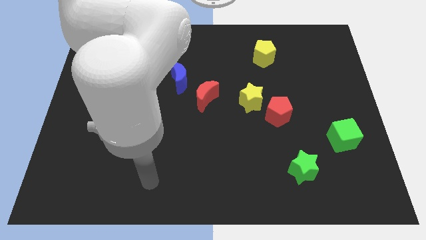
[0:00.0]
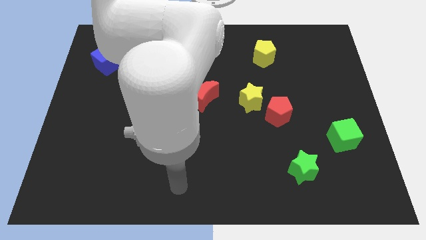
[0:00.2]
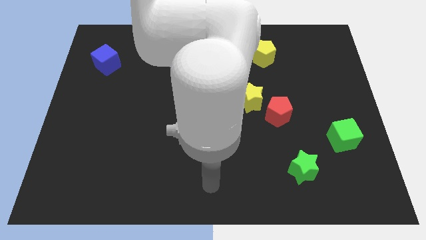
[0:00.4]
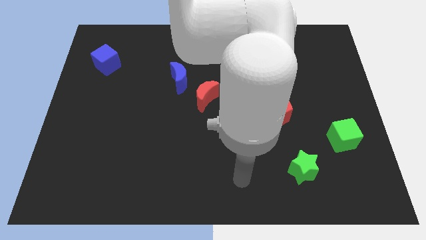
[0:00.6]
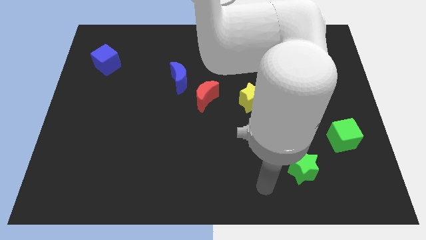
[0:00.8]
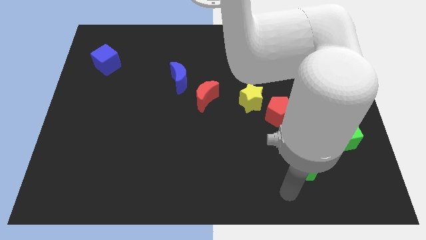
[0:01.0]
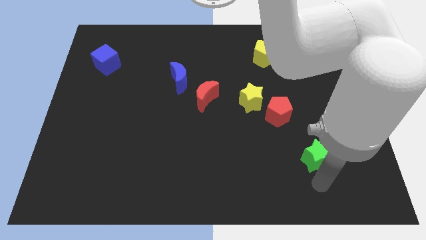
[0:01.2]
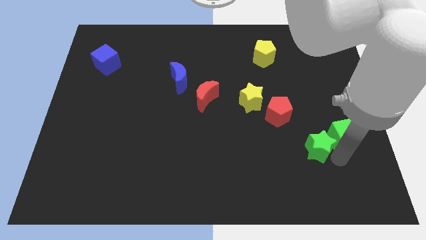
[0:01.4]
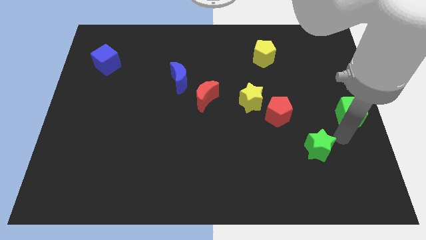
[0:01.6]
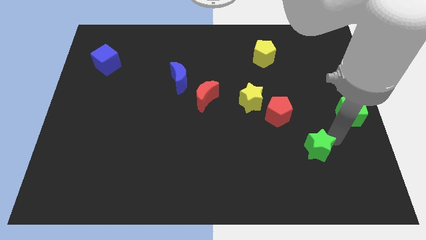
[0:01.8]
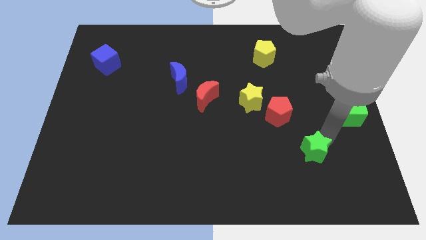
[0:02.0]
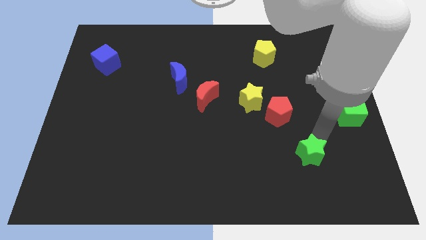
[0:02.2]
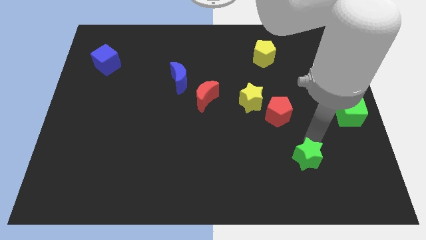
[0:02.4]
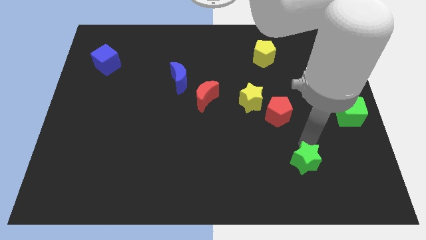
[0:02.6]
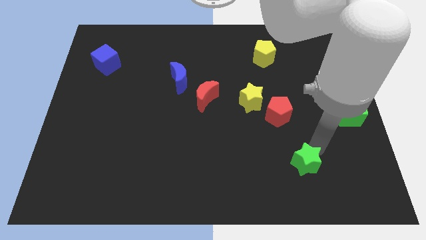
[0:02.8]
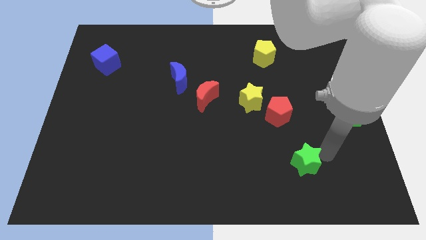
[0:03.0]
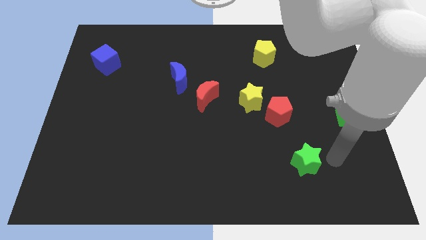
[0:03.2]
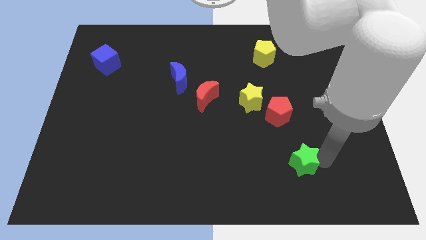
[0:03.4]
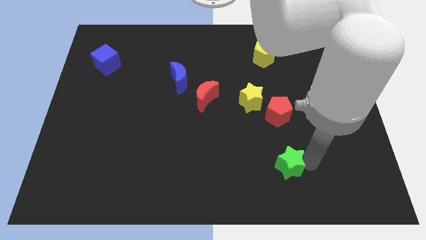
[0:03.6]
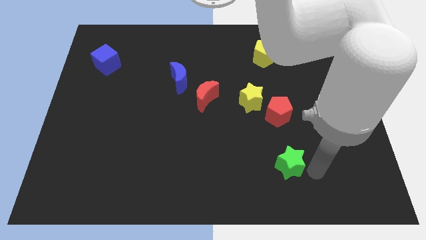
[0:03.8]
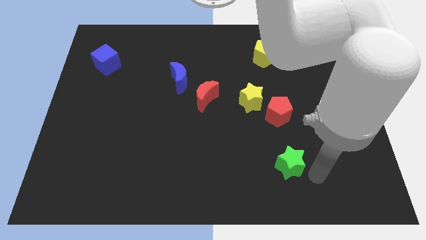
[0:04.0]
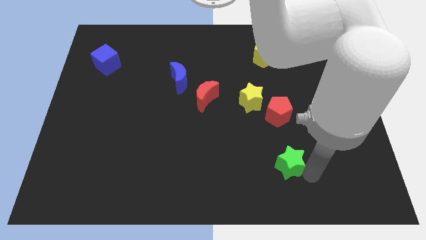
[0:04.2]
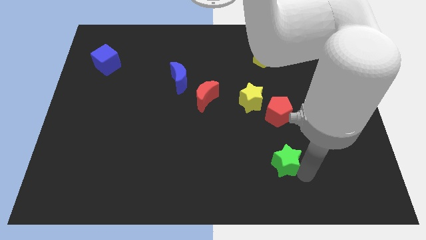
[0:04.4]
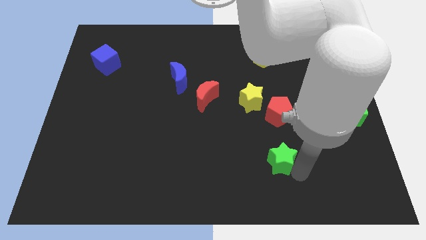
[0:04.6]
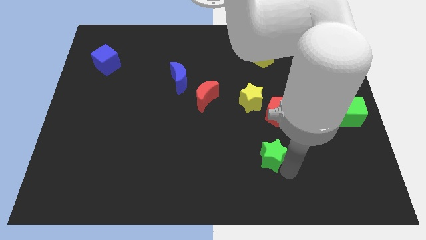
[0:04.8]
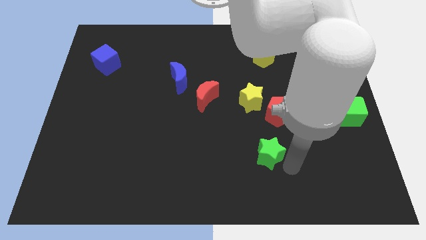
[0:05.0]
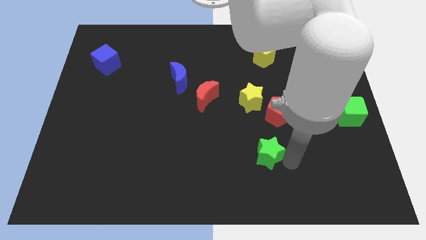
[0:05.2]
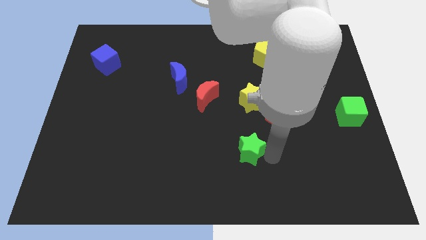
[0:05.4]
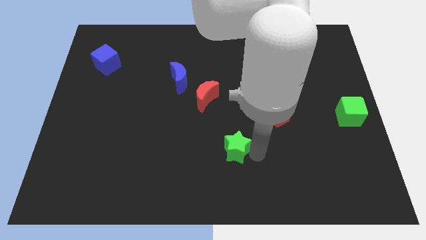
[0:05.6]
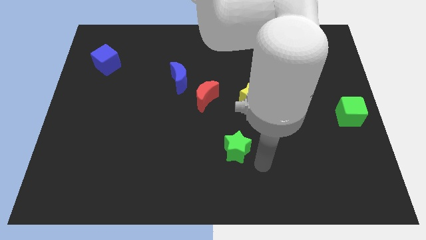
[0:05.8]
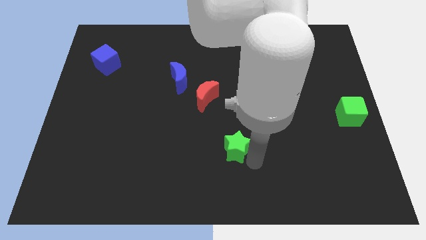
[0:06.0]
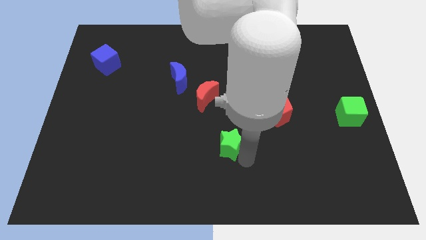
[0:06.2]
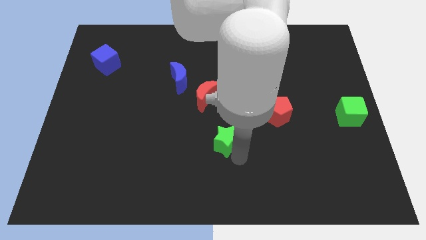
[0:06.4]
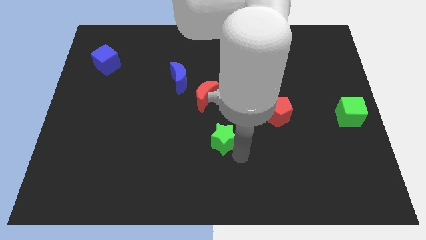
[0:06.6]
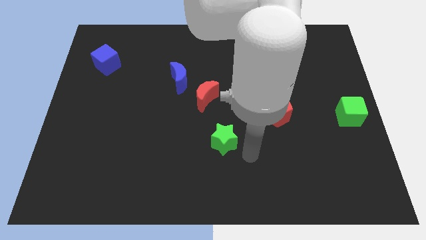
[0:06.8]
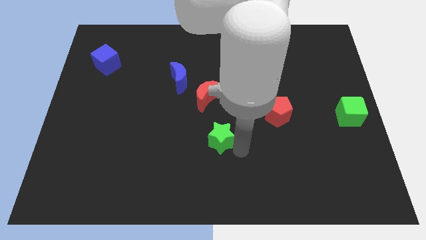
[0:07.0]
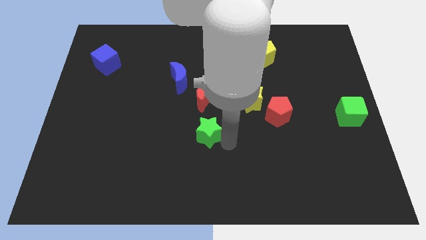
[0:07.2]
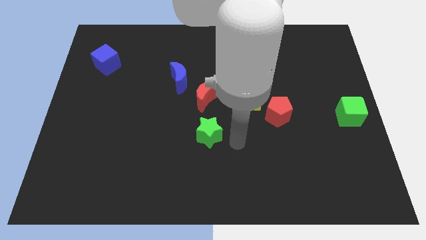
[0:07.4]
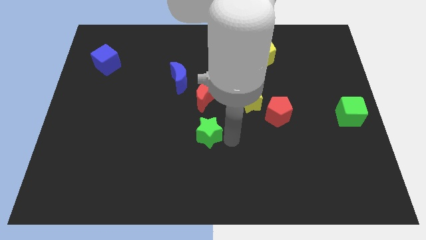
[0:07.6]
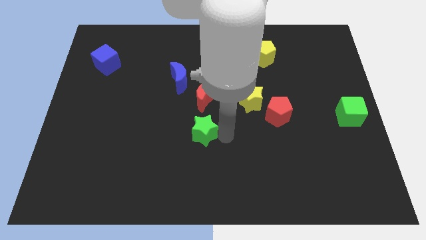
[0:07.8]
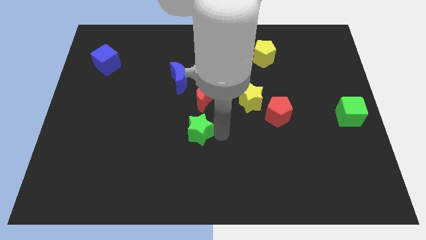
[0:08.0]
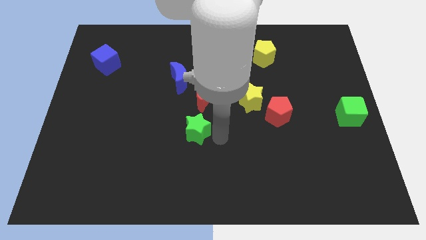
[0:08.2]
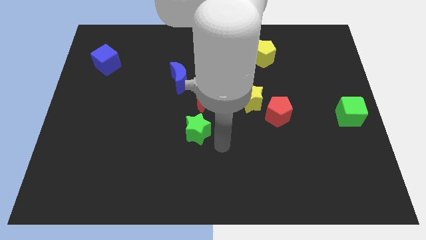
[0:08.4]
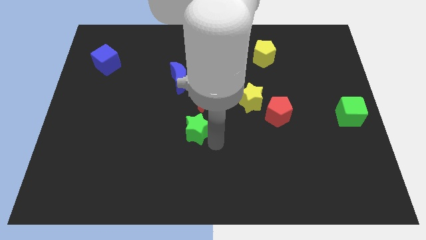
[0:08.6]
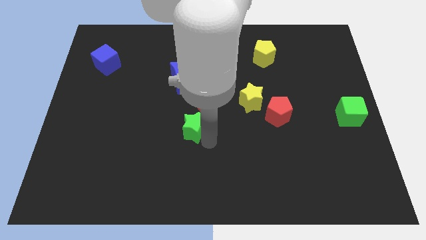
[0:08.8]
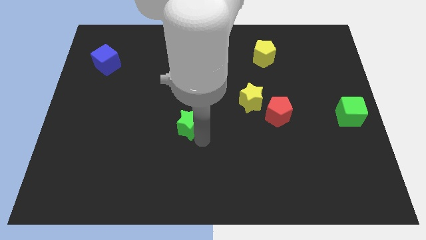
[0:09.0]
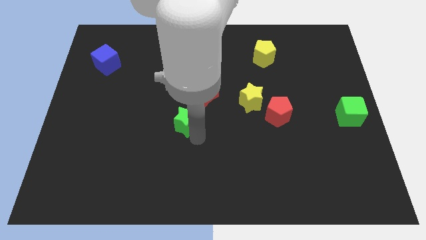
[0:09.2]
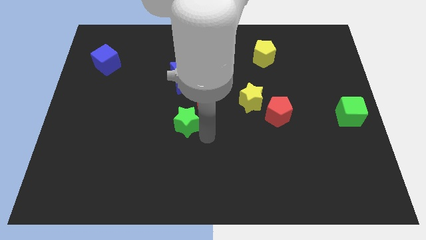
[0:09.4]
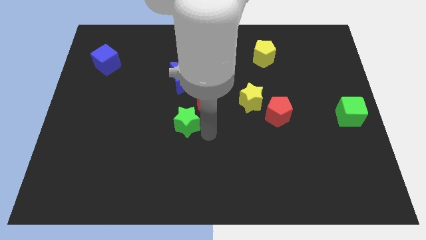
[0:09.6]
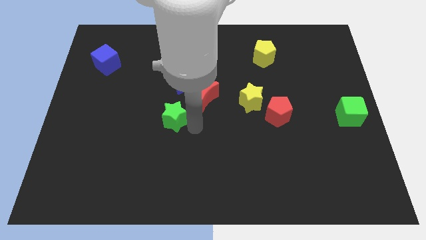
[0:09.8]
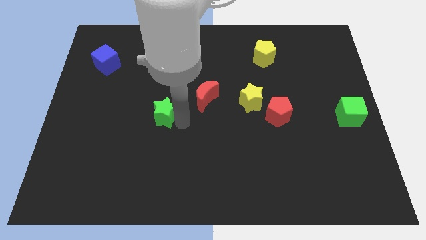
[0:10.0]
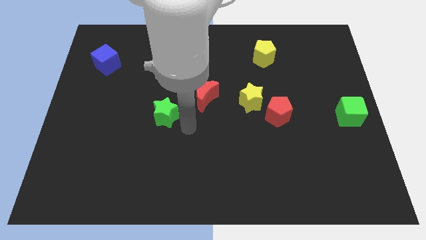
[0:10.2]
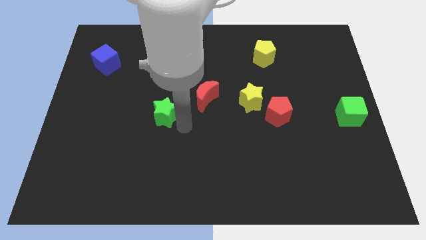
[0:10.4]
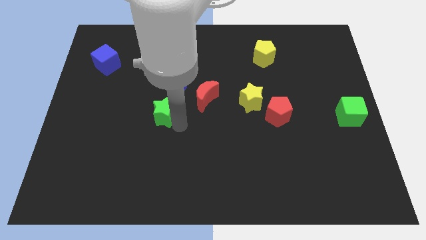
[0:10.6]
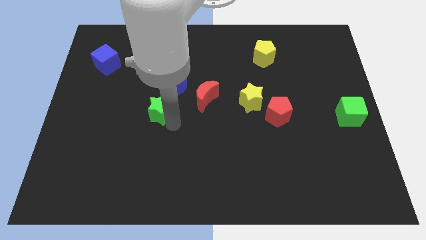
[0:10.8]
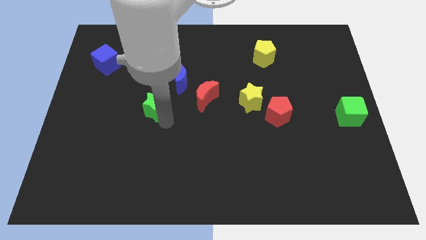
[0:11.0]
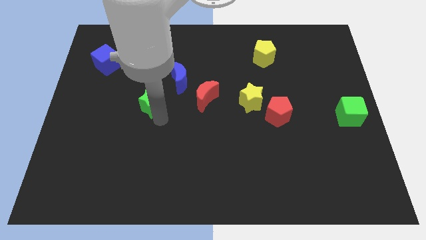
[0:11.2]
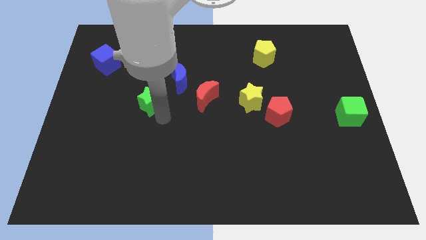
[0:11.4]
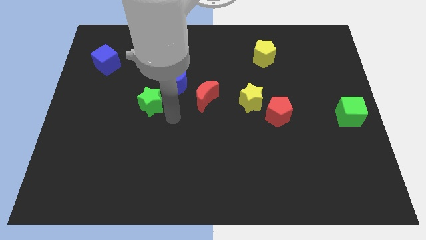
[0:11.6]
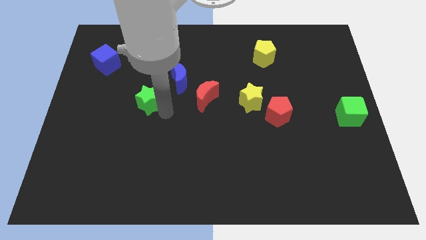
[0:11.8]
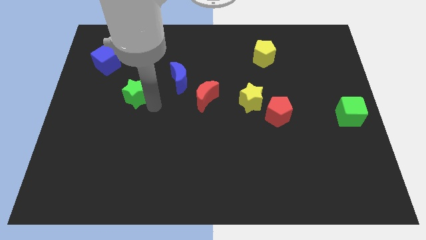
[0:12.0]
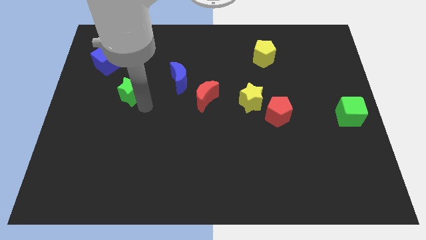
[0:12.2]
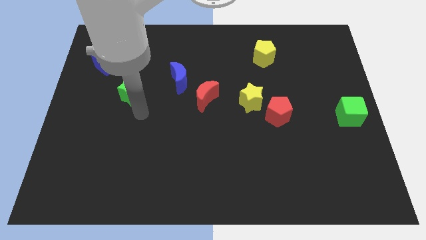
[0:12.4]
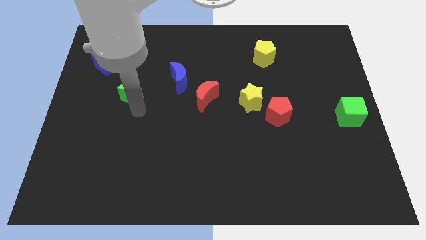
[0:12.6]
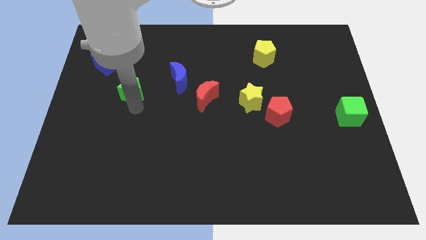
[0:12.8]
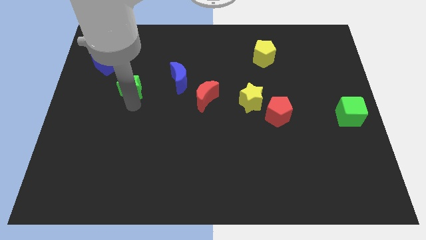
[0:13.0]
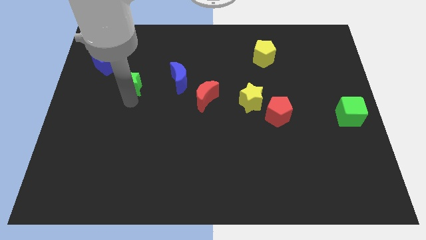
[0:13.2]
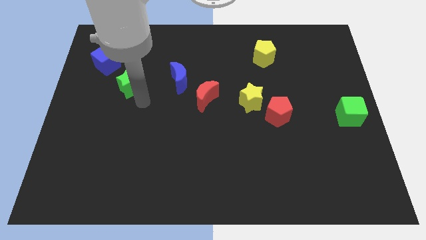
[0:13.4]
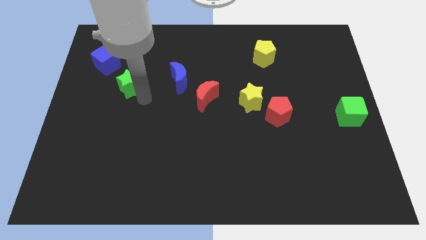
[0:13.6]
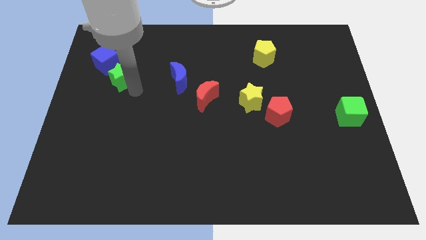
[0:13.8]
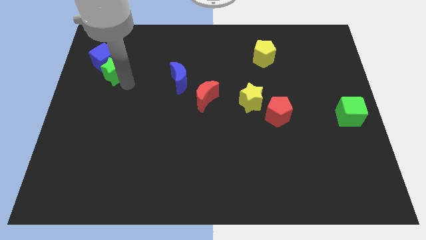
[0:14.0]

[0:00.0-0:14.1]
push the green star next to the blue cube
